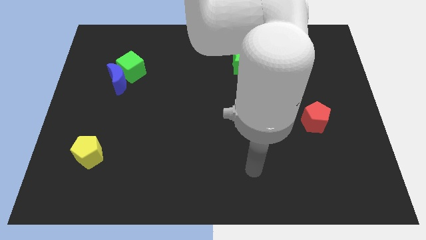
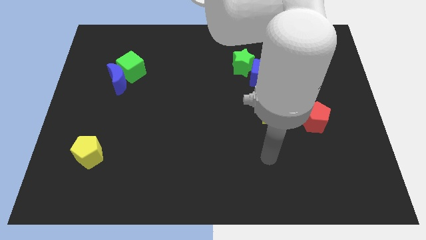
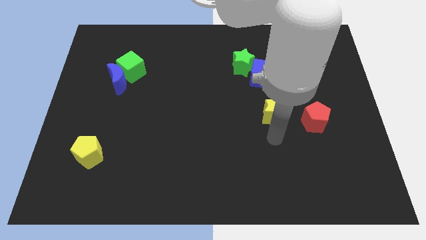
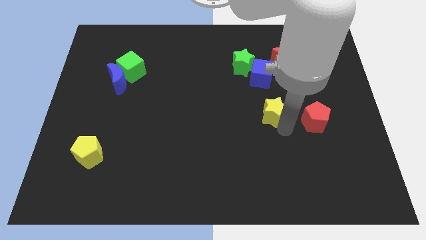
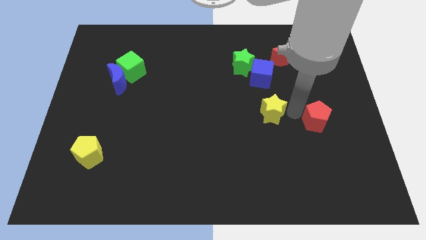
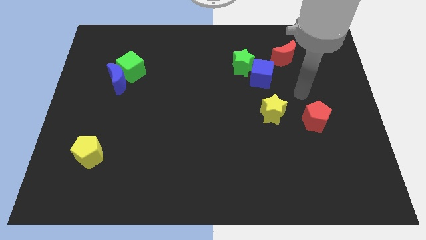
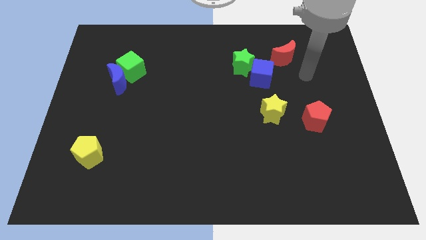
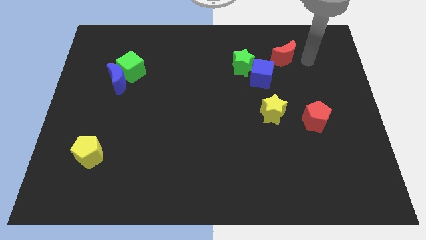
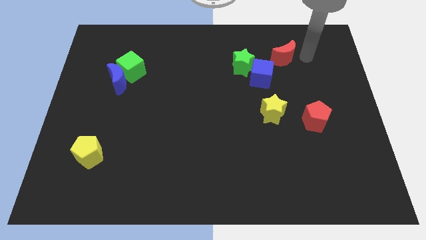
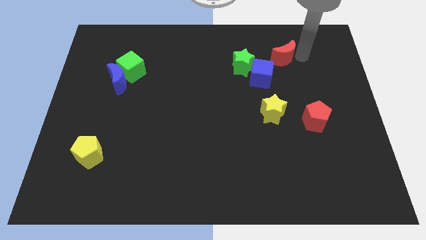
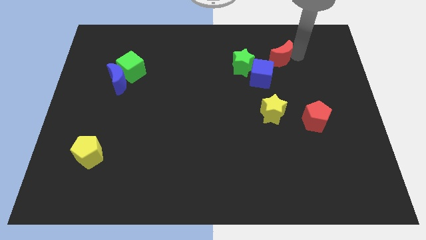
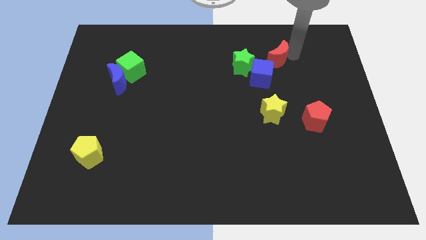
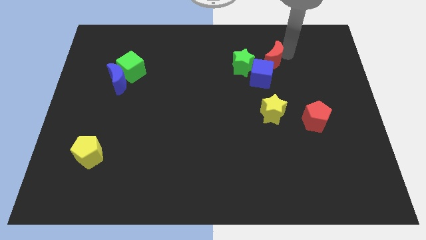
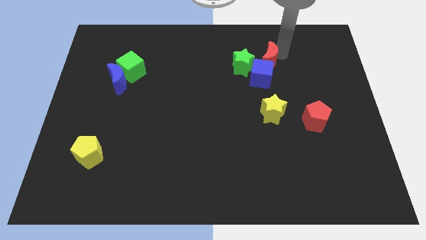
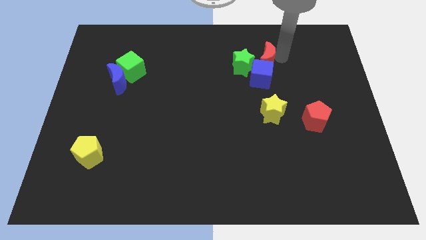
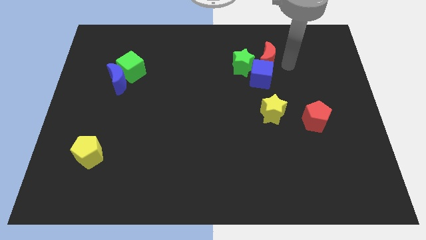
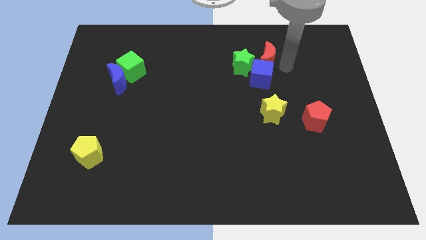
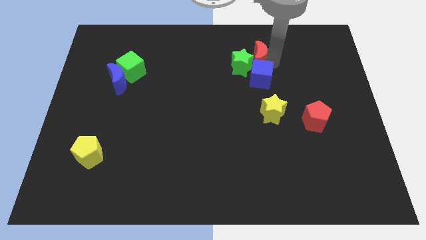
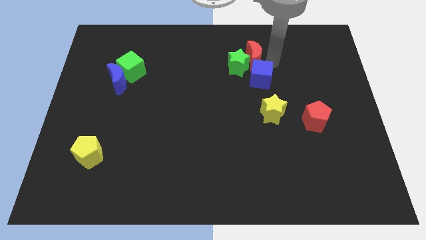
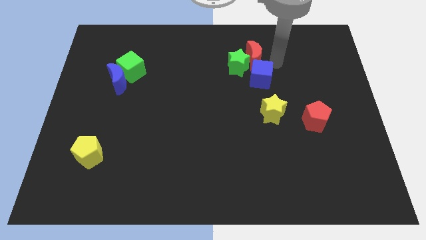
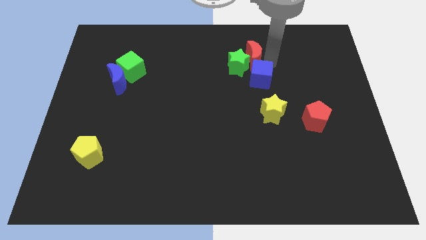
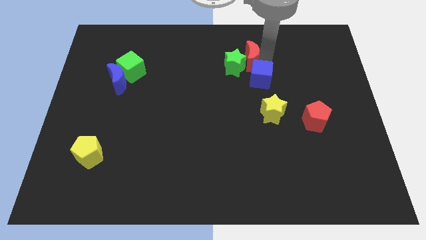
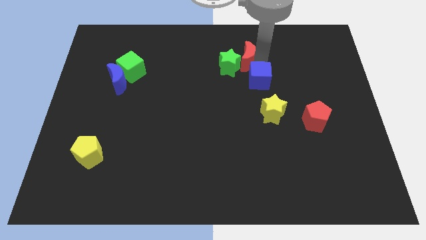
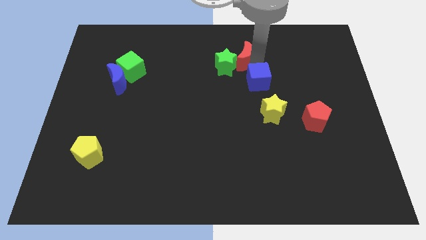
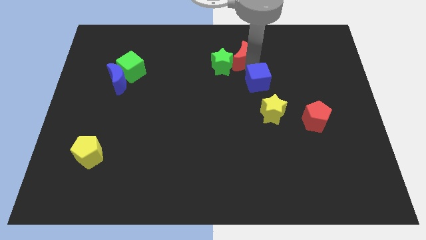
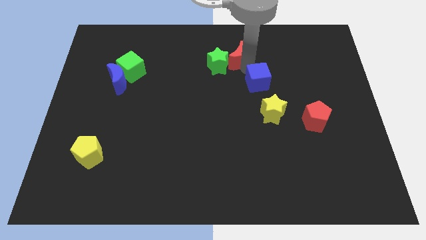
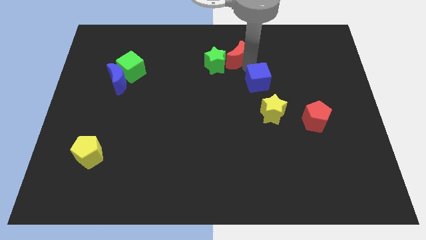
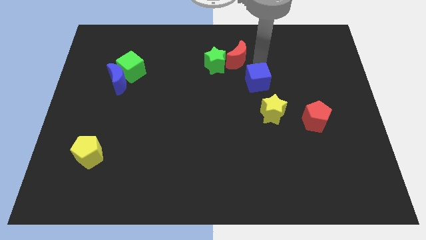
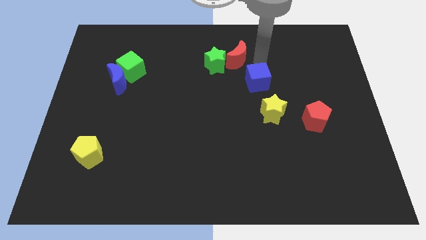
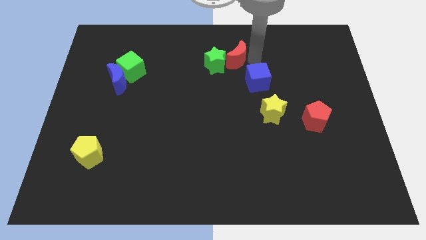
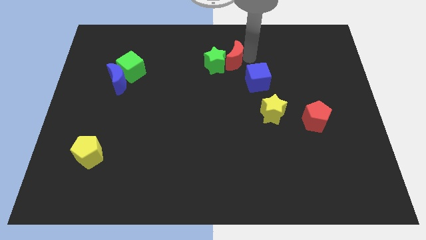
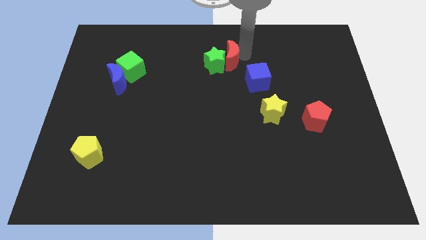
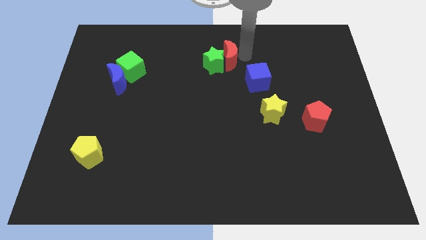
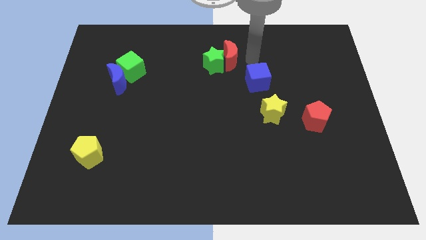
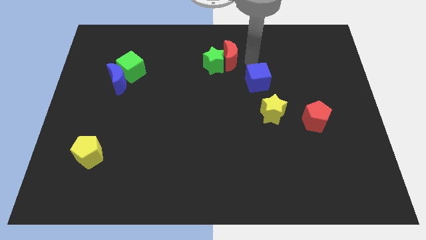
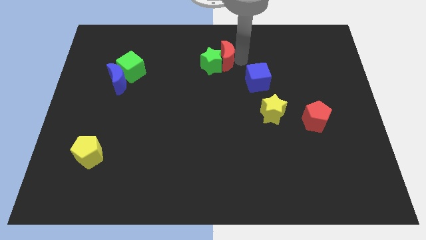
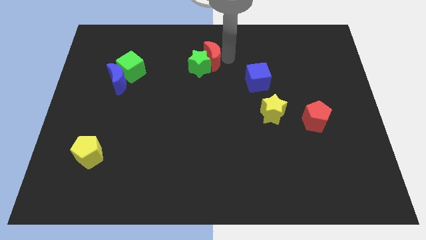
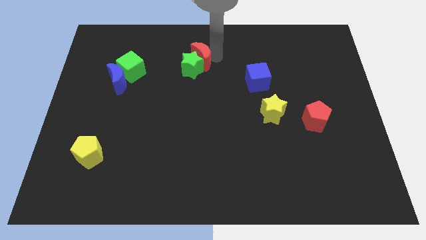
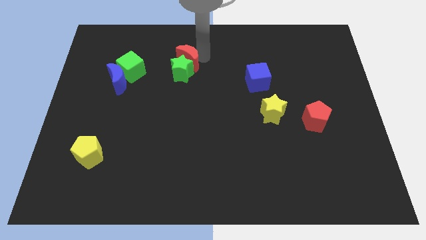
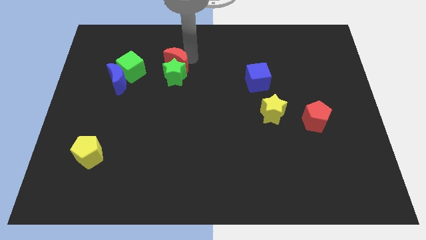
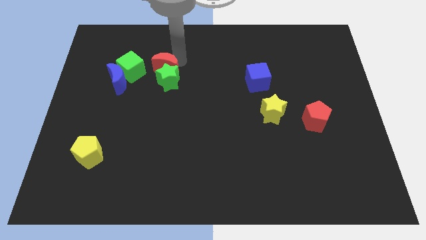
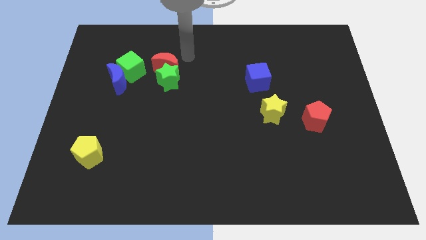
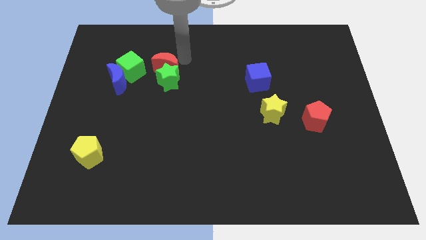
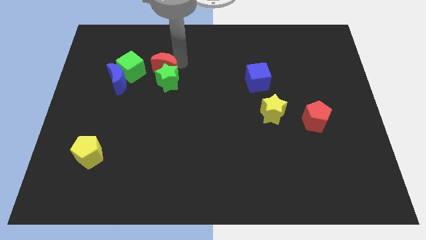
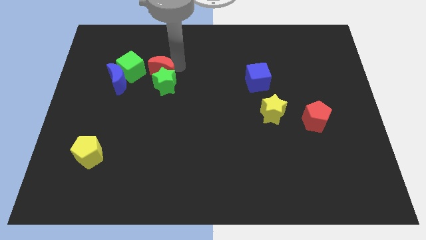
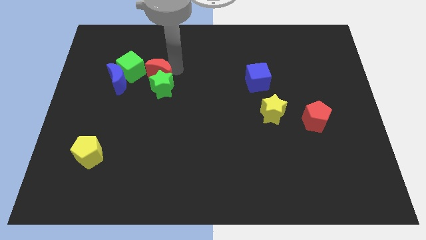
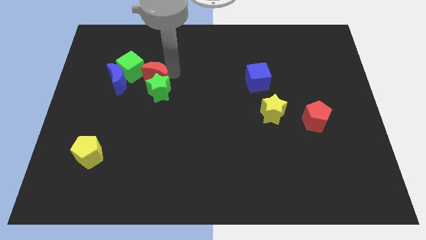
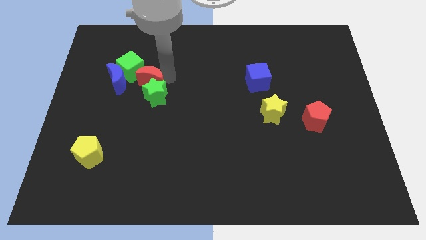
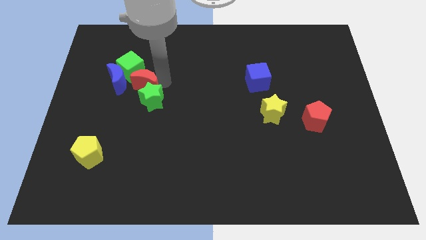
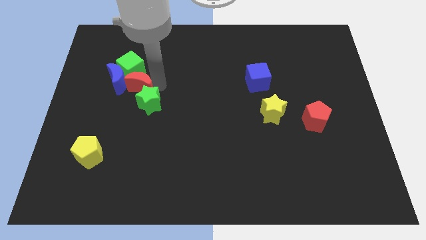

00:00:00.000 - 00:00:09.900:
slide the red moon to the blue moon

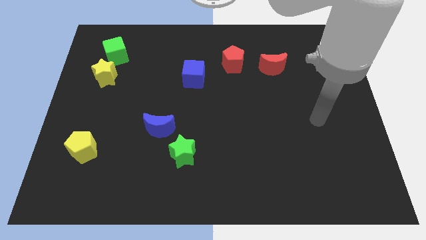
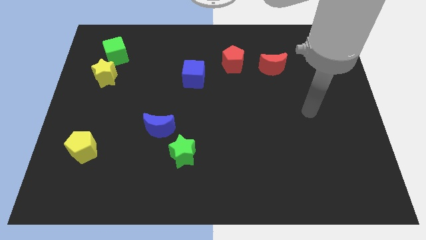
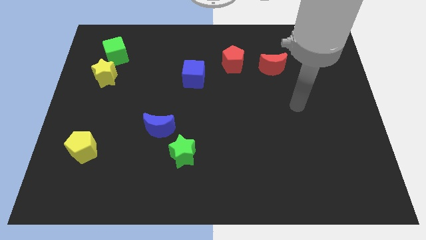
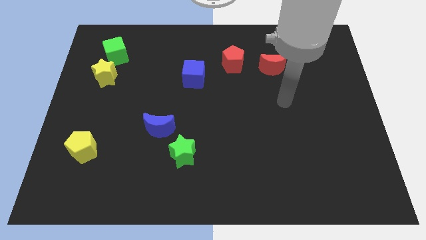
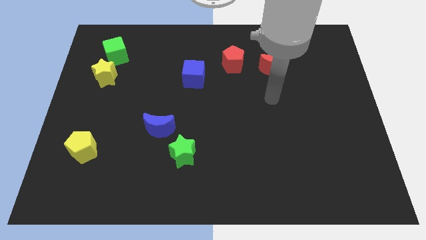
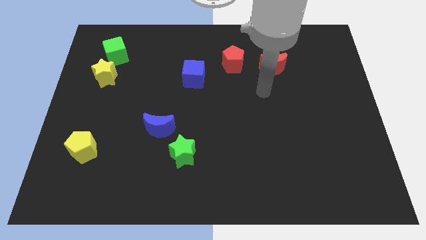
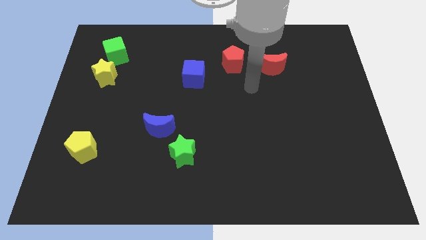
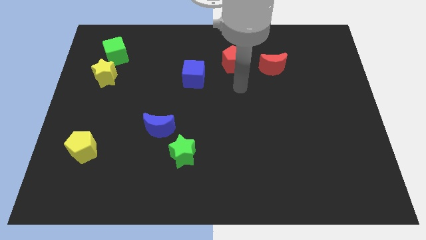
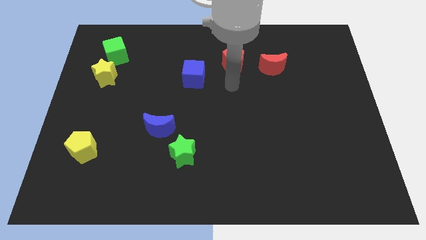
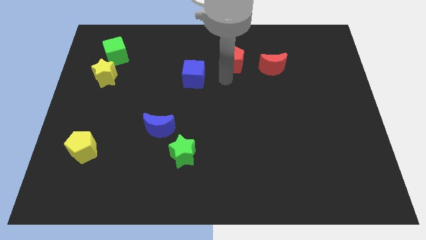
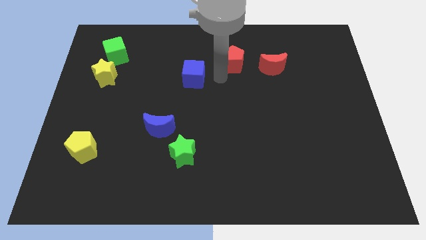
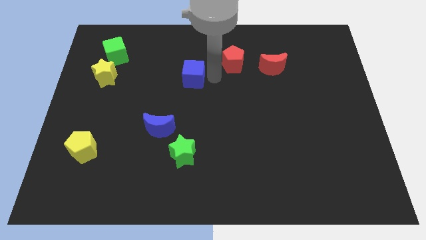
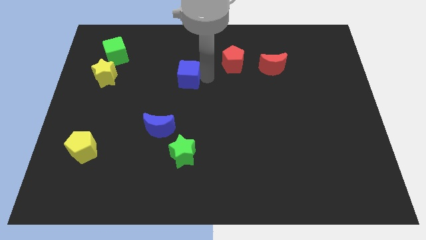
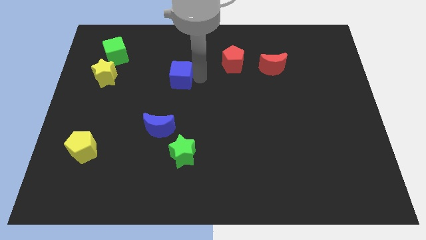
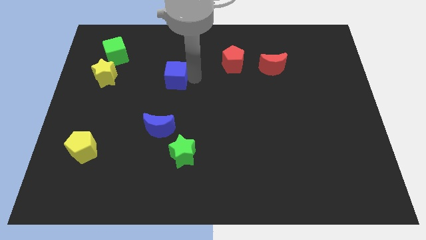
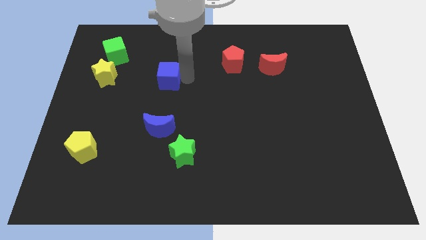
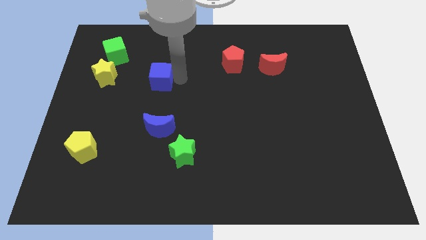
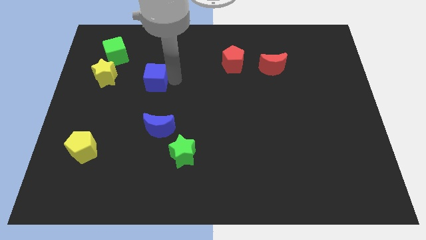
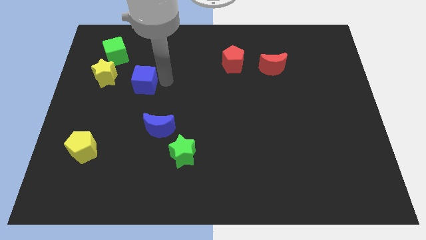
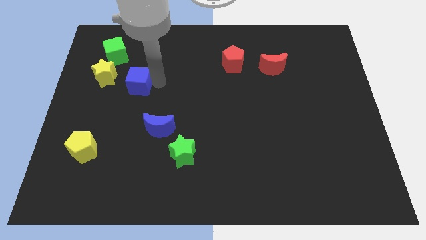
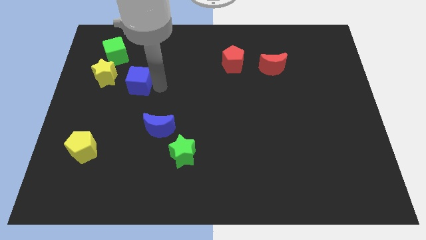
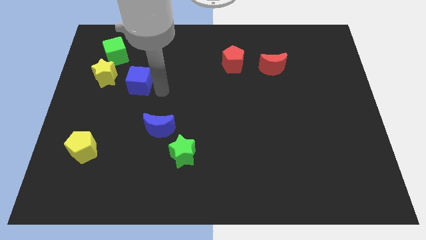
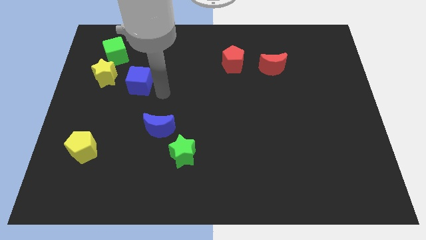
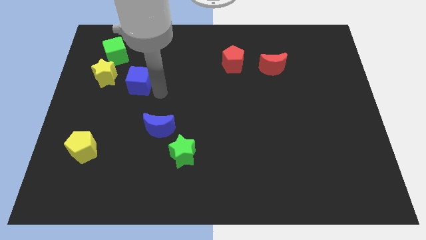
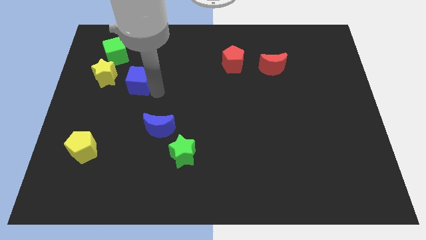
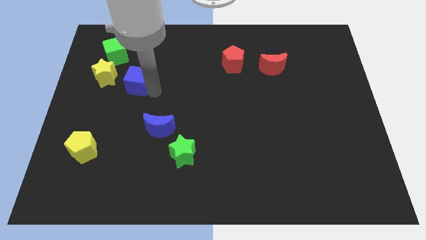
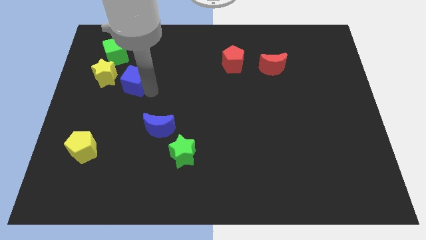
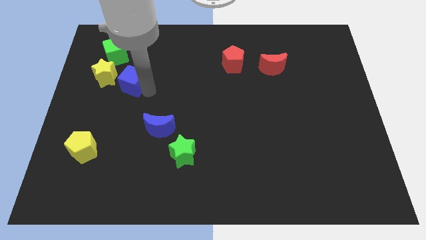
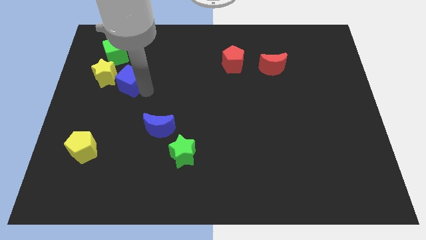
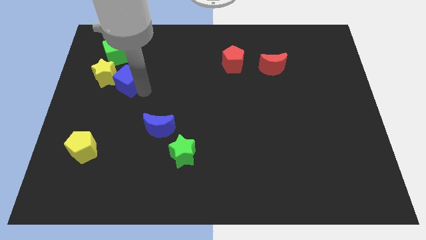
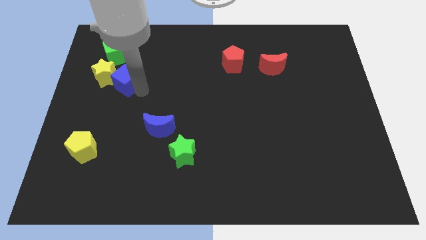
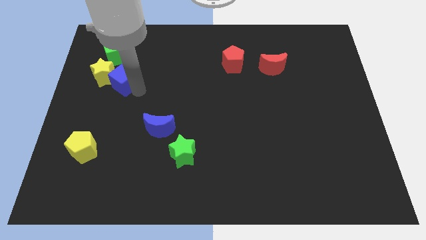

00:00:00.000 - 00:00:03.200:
put the blue cube close to the yellow star
